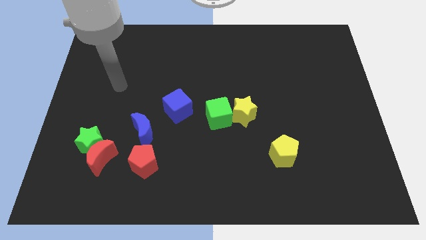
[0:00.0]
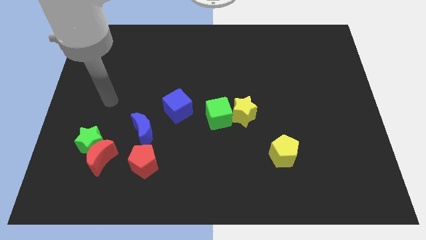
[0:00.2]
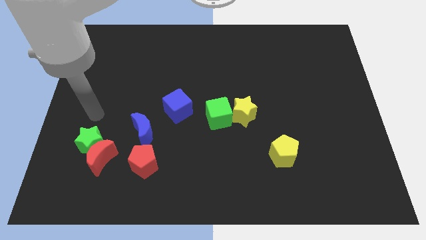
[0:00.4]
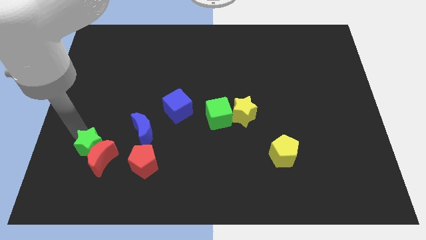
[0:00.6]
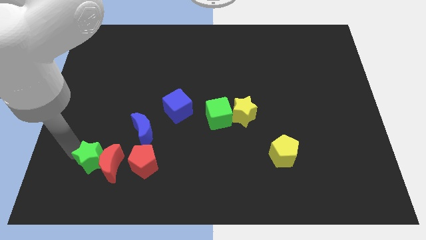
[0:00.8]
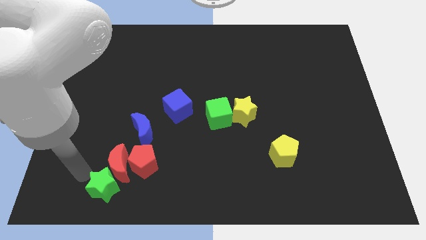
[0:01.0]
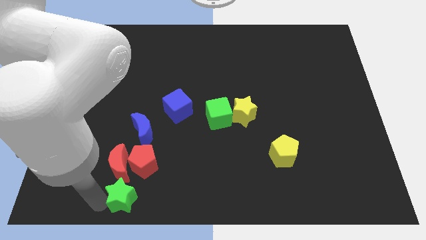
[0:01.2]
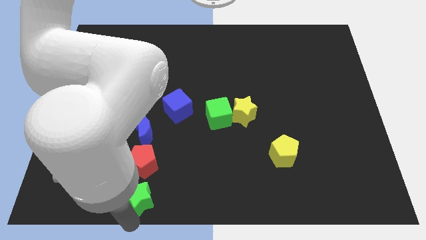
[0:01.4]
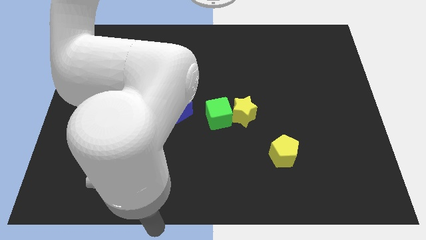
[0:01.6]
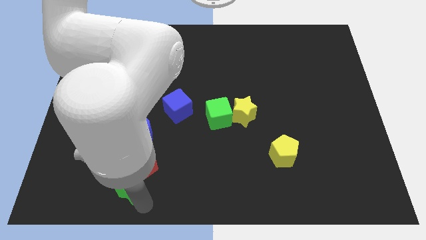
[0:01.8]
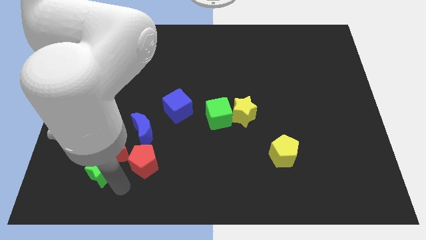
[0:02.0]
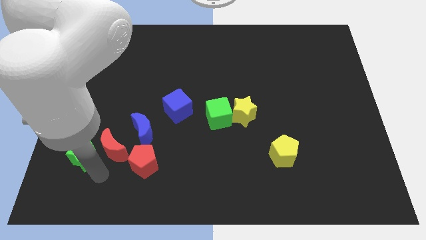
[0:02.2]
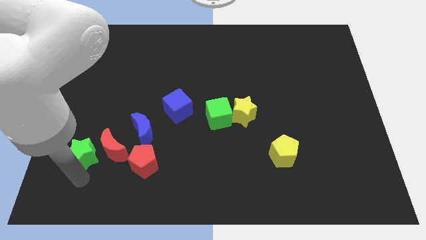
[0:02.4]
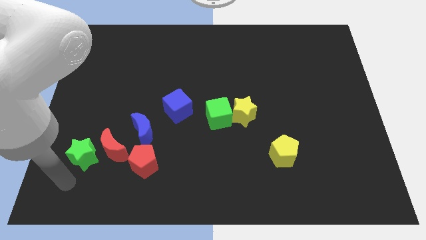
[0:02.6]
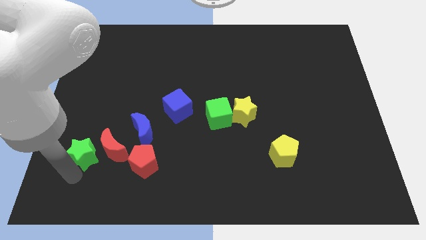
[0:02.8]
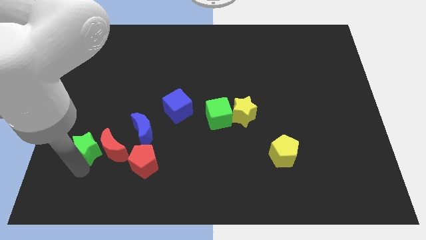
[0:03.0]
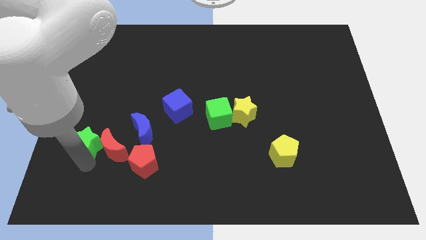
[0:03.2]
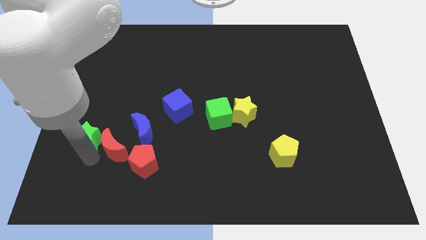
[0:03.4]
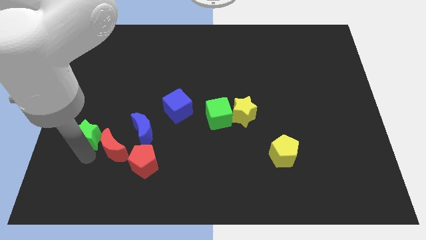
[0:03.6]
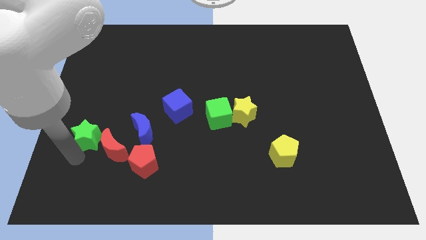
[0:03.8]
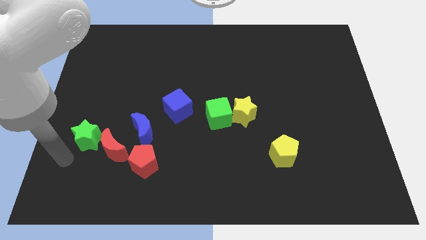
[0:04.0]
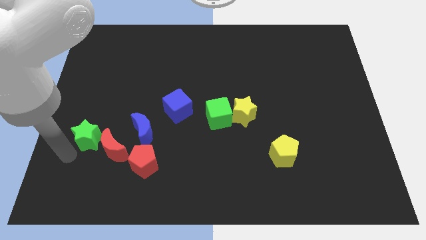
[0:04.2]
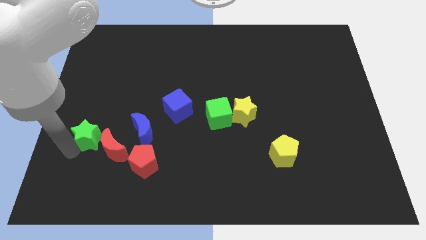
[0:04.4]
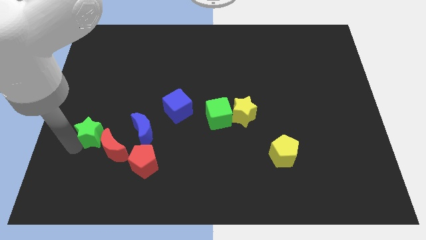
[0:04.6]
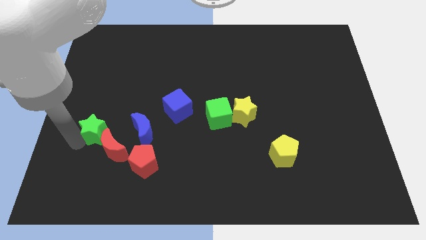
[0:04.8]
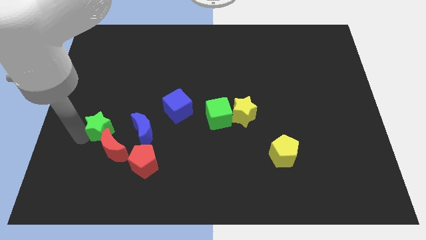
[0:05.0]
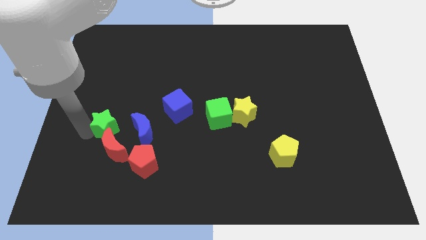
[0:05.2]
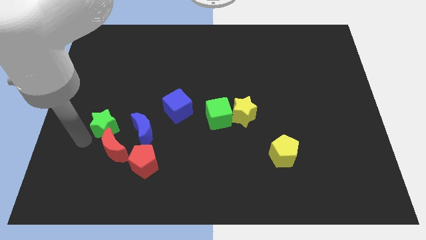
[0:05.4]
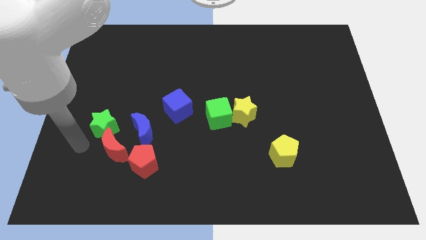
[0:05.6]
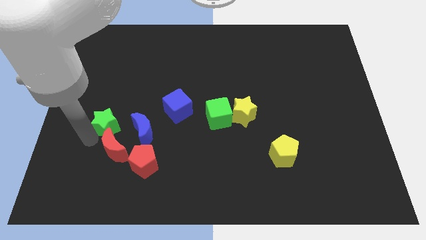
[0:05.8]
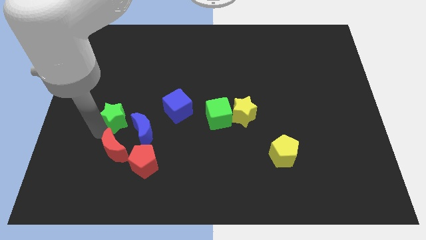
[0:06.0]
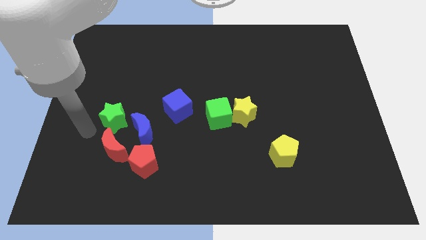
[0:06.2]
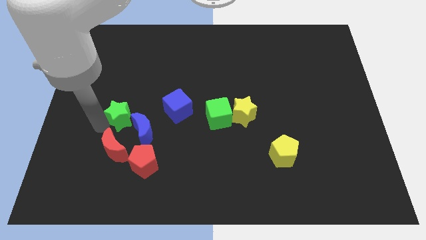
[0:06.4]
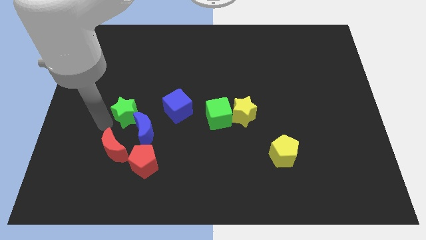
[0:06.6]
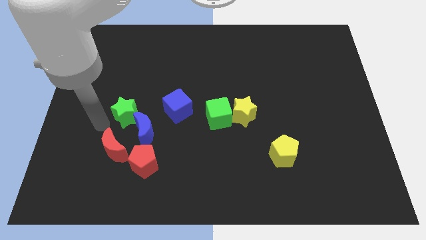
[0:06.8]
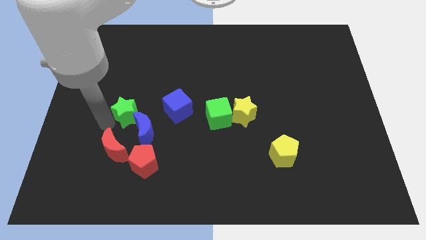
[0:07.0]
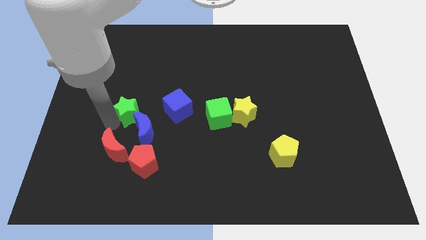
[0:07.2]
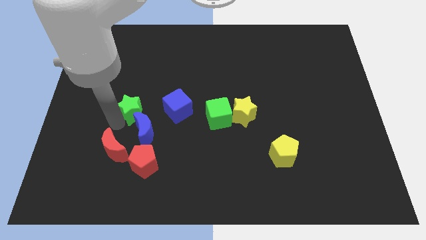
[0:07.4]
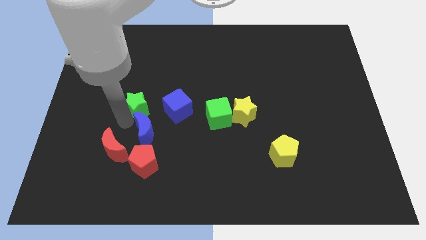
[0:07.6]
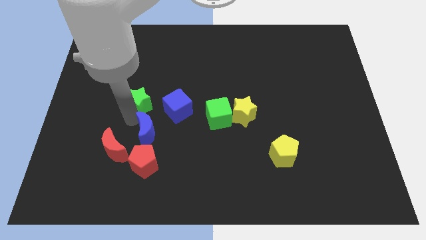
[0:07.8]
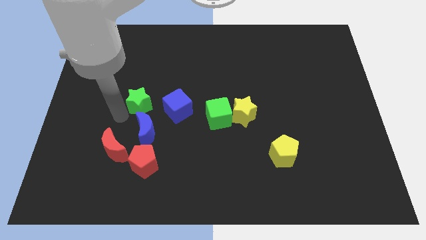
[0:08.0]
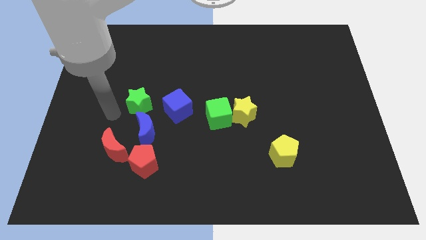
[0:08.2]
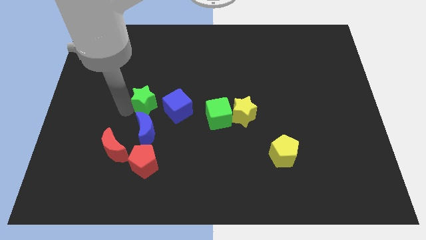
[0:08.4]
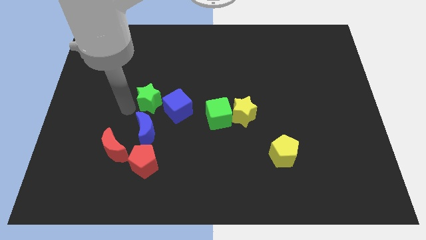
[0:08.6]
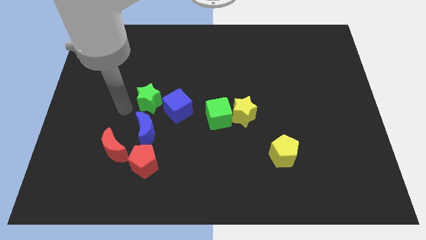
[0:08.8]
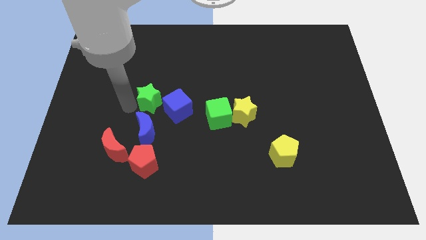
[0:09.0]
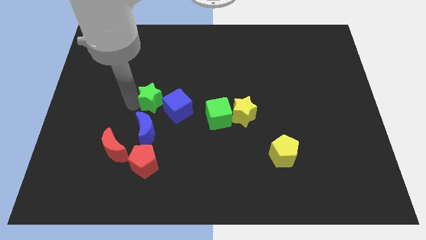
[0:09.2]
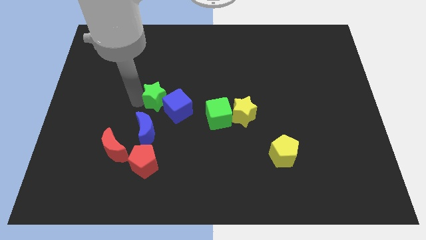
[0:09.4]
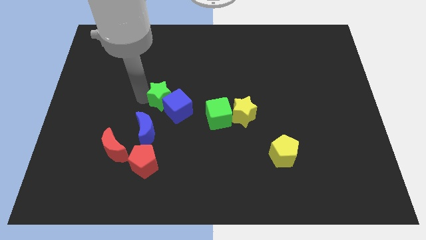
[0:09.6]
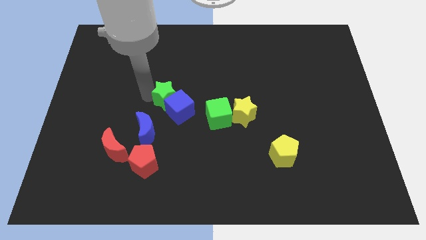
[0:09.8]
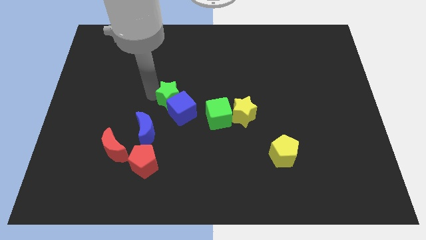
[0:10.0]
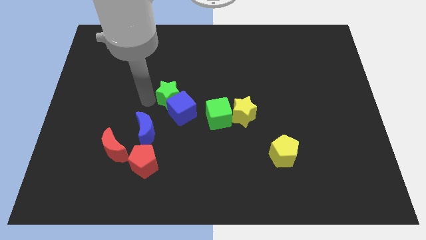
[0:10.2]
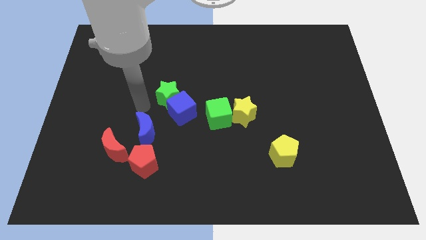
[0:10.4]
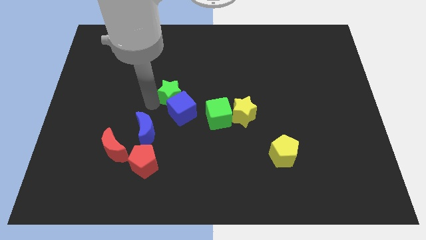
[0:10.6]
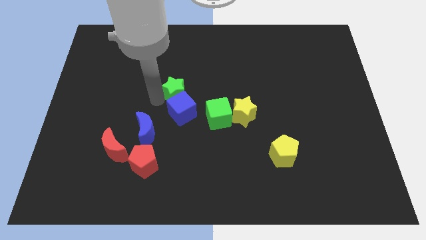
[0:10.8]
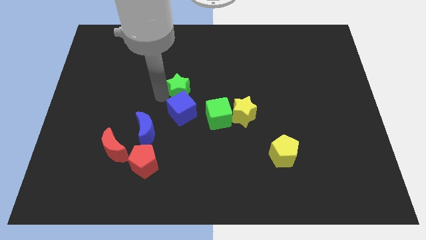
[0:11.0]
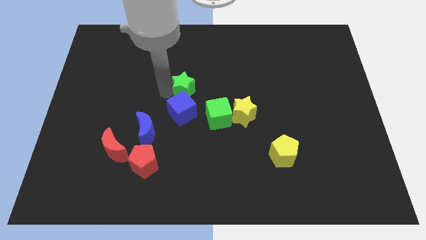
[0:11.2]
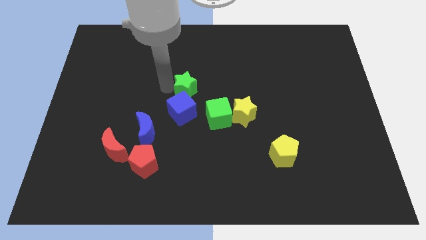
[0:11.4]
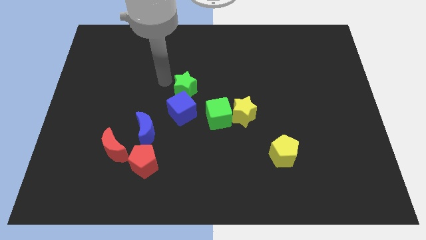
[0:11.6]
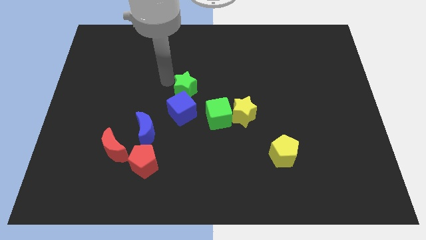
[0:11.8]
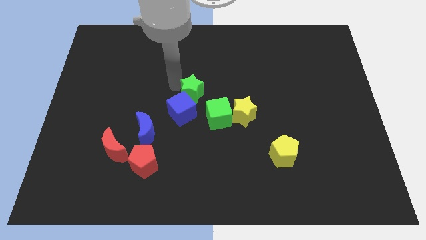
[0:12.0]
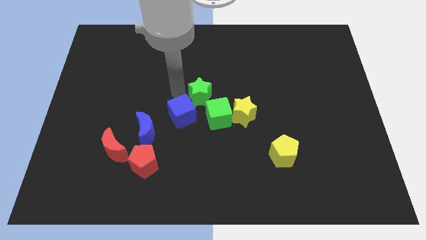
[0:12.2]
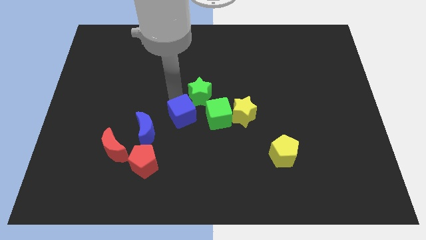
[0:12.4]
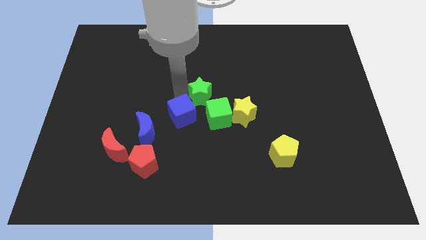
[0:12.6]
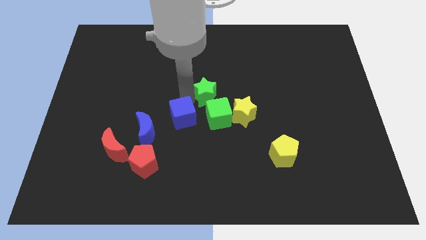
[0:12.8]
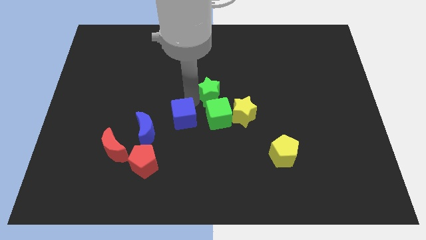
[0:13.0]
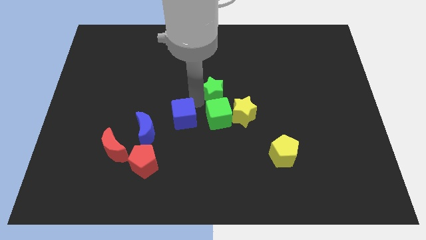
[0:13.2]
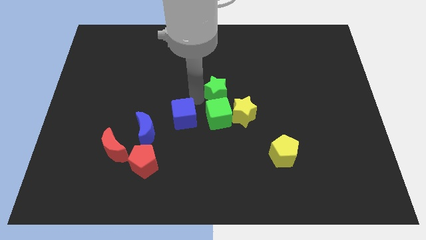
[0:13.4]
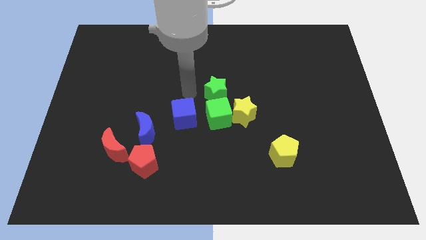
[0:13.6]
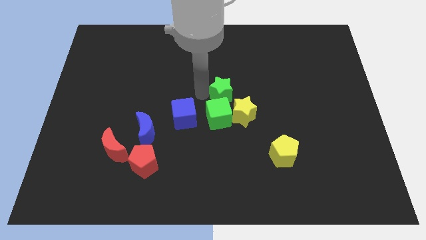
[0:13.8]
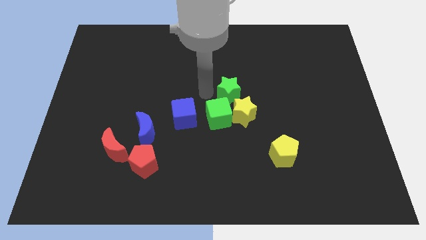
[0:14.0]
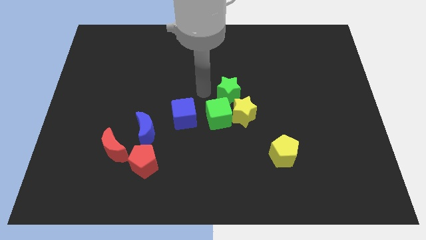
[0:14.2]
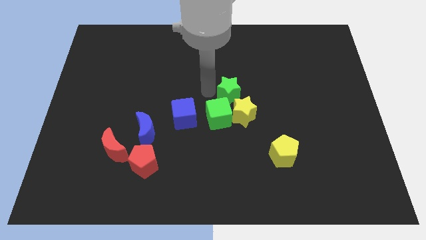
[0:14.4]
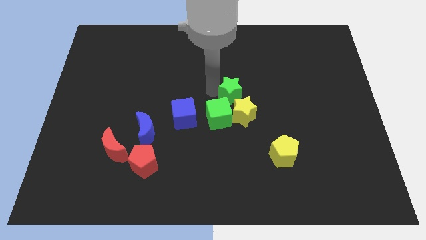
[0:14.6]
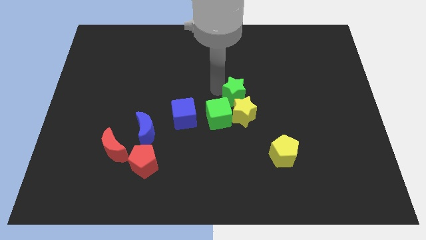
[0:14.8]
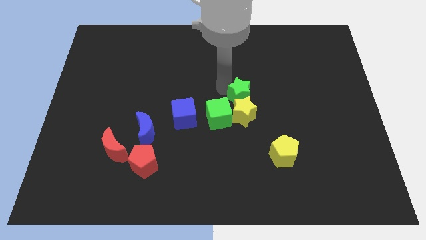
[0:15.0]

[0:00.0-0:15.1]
slide the green star to the top right side of the yellow star
